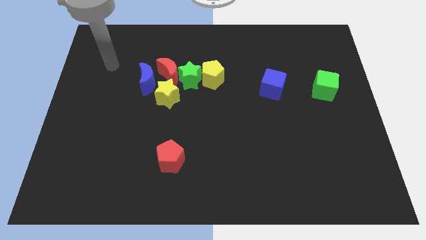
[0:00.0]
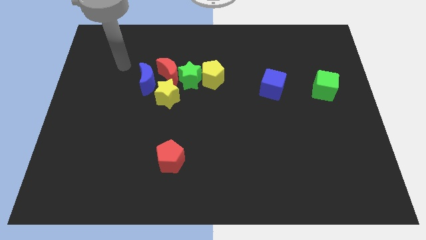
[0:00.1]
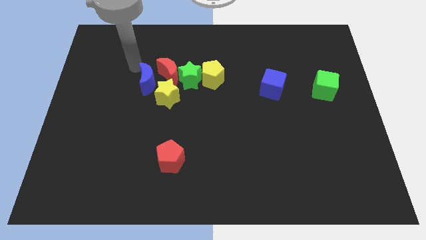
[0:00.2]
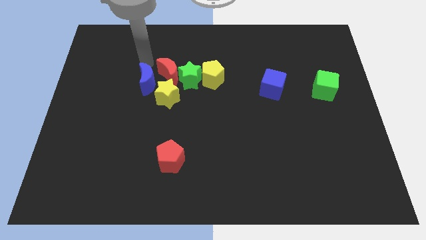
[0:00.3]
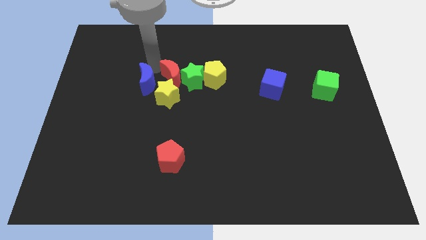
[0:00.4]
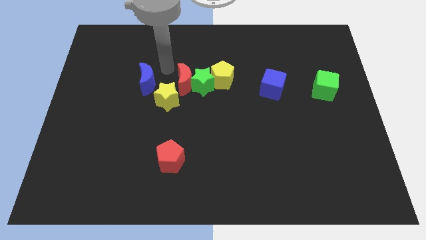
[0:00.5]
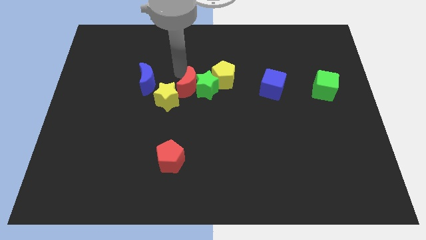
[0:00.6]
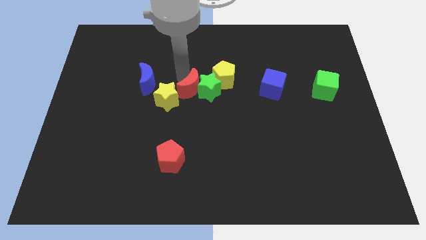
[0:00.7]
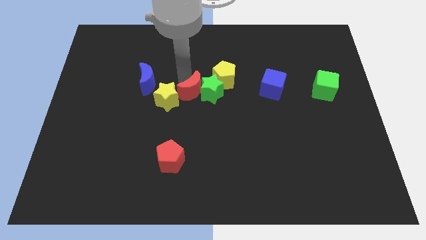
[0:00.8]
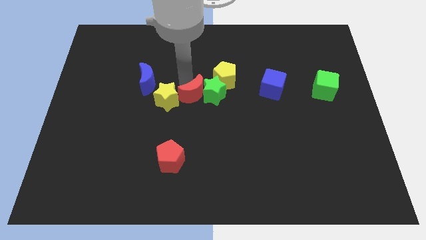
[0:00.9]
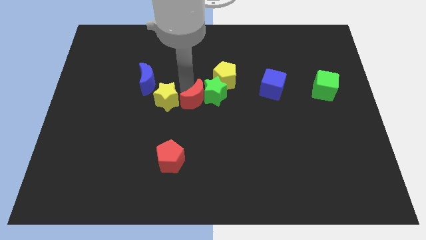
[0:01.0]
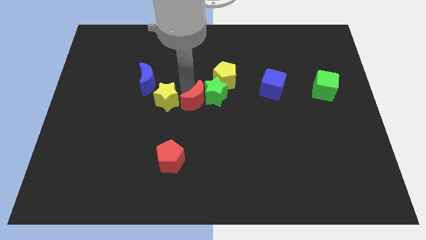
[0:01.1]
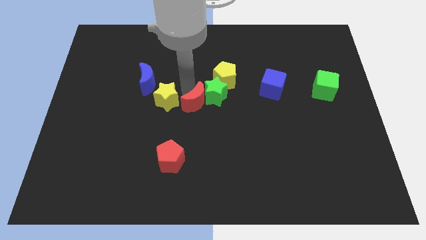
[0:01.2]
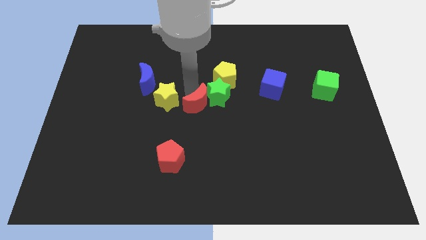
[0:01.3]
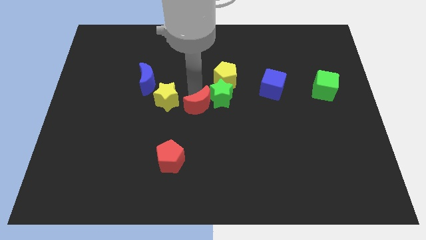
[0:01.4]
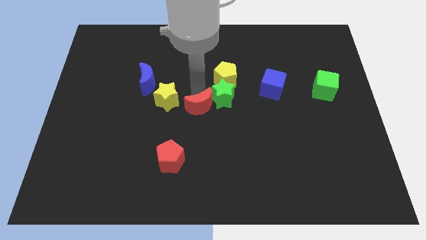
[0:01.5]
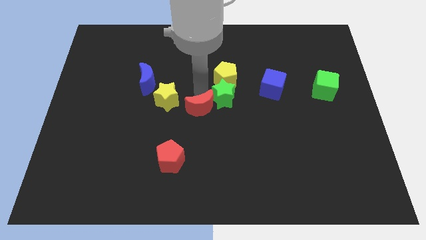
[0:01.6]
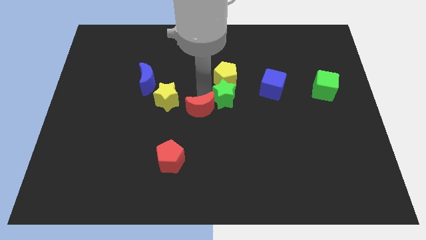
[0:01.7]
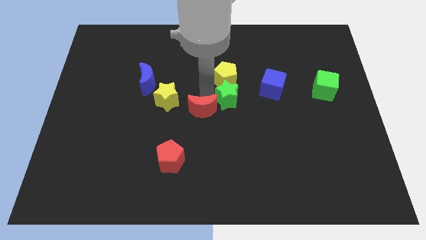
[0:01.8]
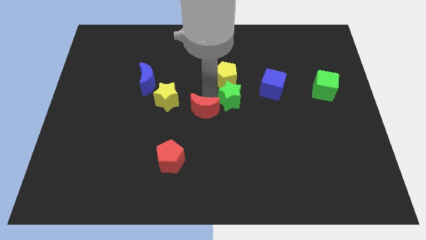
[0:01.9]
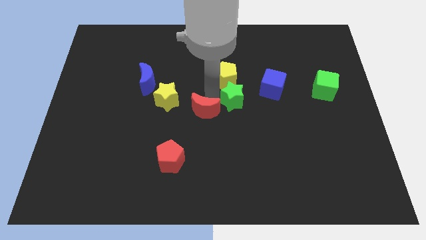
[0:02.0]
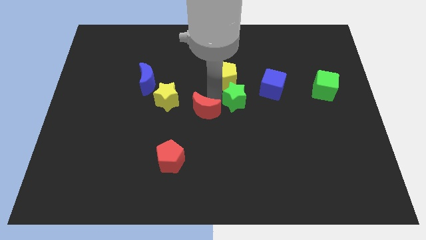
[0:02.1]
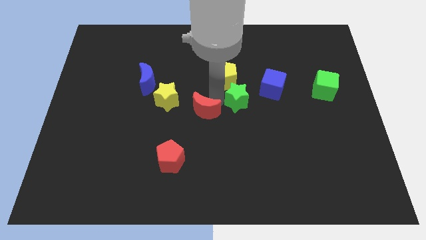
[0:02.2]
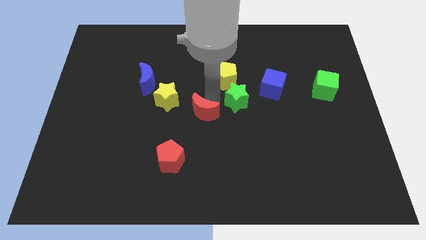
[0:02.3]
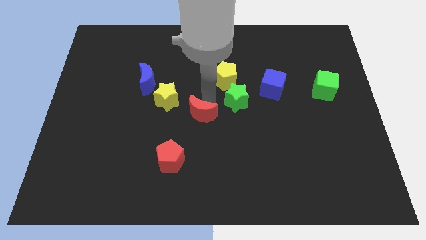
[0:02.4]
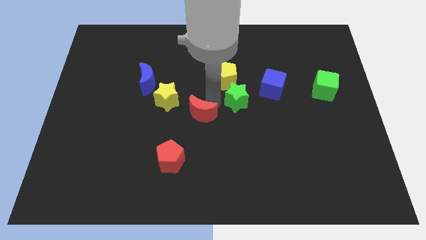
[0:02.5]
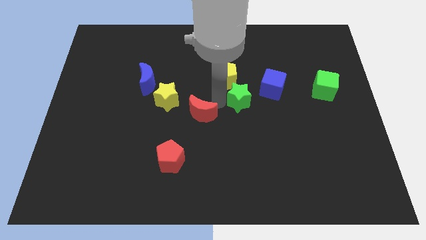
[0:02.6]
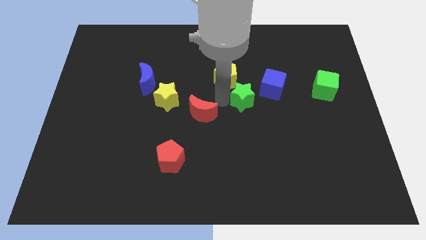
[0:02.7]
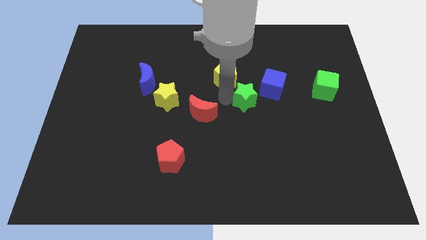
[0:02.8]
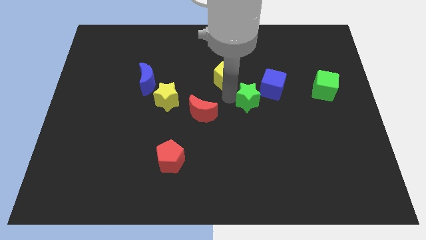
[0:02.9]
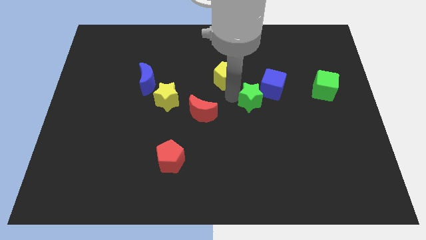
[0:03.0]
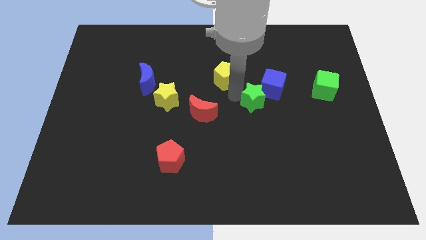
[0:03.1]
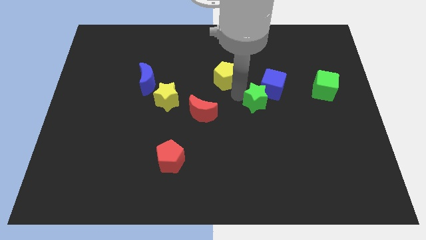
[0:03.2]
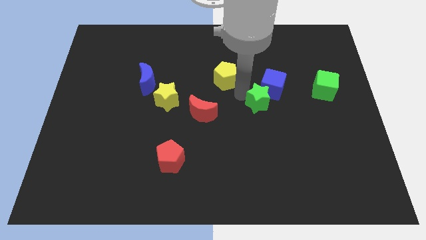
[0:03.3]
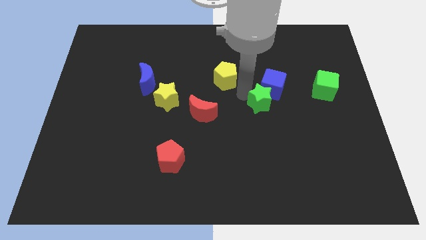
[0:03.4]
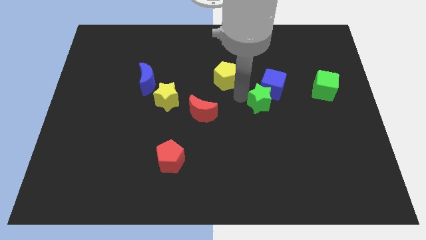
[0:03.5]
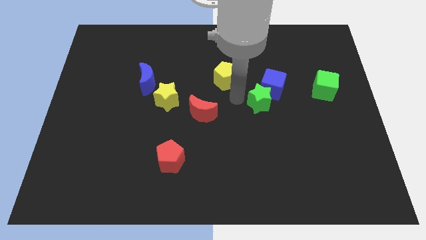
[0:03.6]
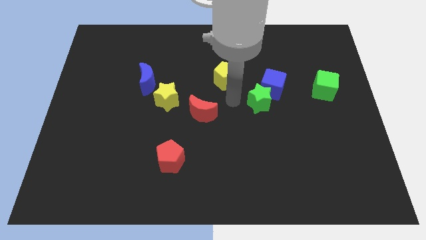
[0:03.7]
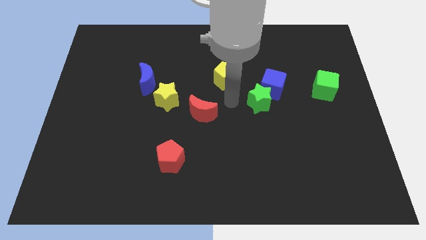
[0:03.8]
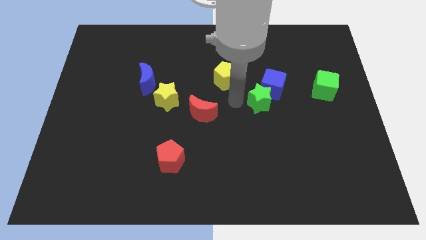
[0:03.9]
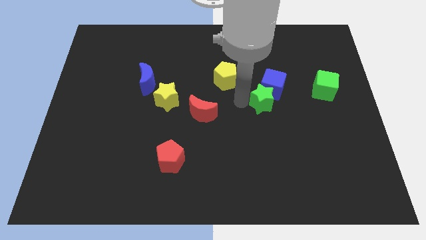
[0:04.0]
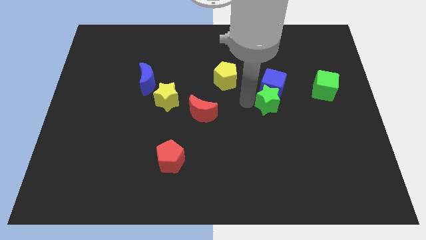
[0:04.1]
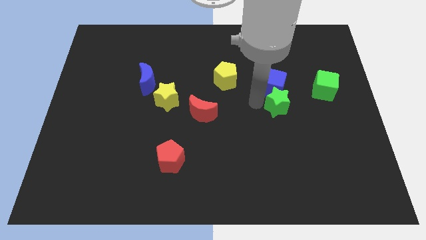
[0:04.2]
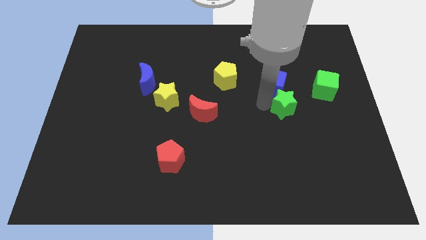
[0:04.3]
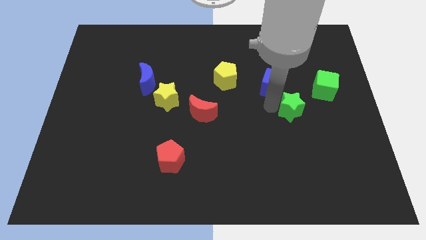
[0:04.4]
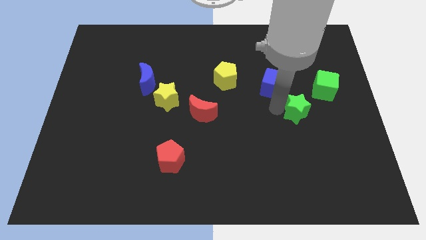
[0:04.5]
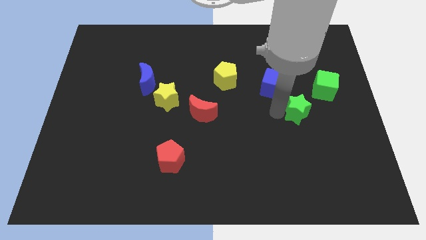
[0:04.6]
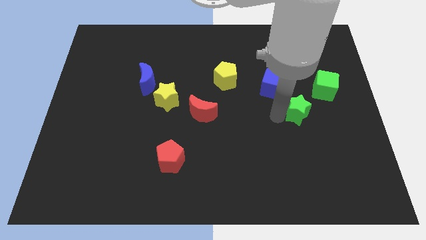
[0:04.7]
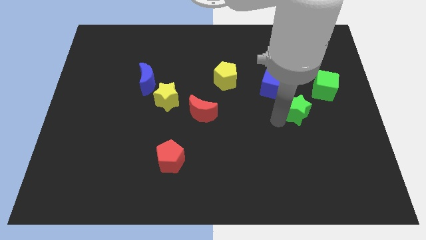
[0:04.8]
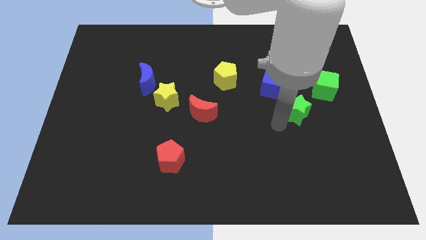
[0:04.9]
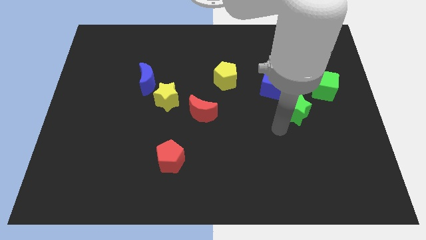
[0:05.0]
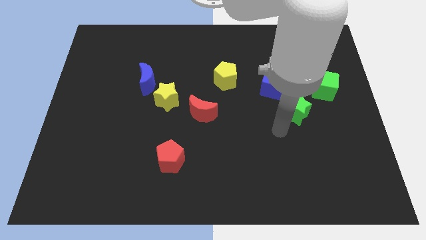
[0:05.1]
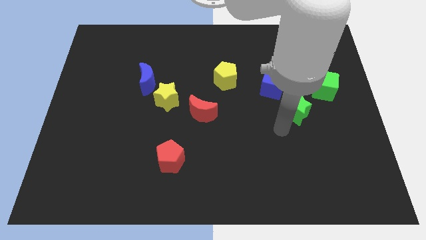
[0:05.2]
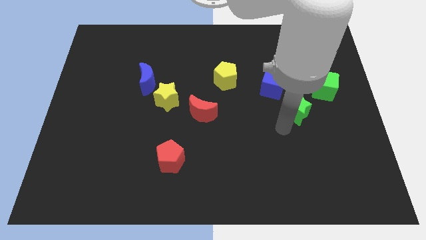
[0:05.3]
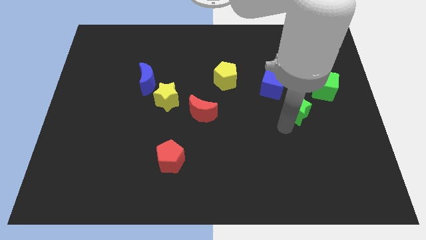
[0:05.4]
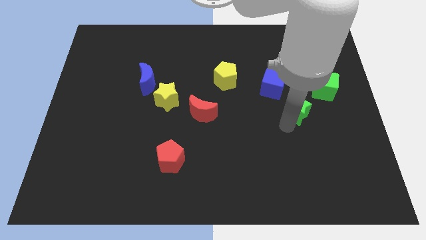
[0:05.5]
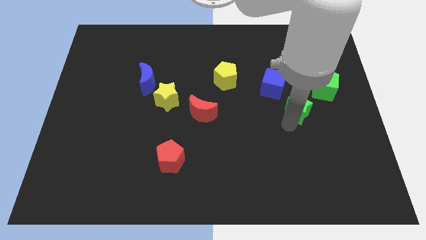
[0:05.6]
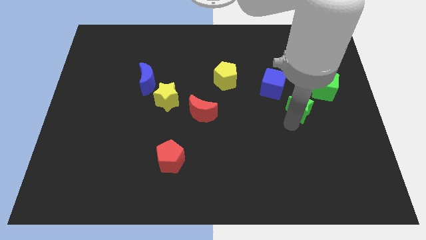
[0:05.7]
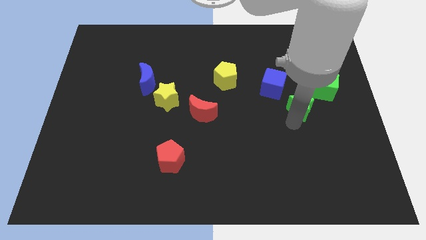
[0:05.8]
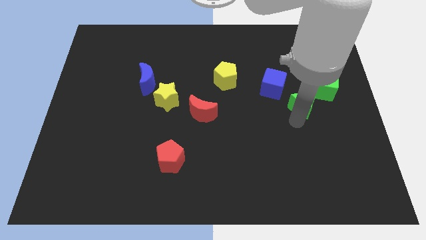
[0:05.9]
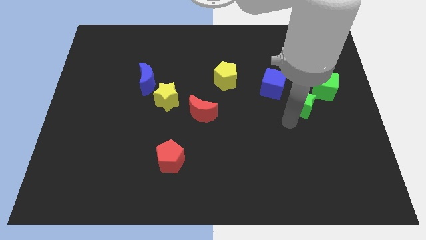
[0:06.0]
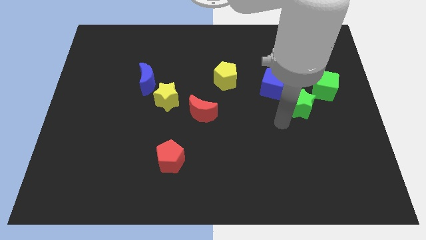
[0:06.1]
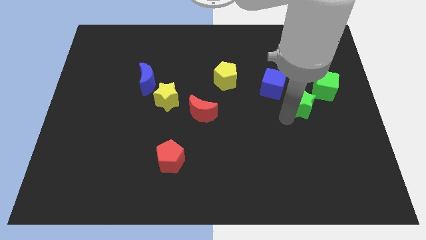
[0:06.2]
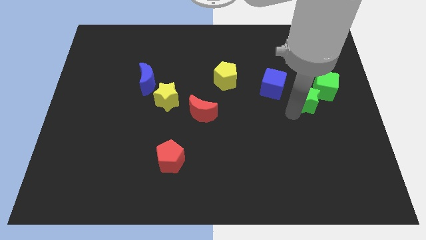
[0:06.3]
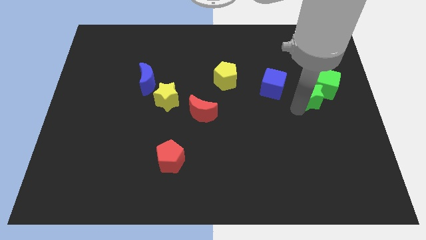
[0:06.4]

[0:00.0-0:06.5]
slide the green star next to the green cube

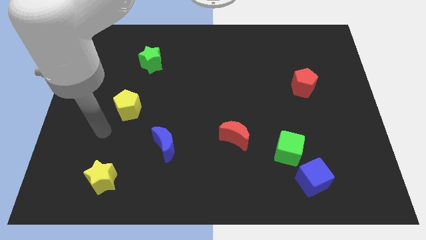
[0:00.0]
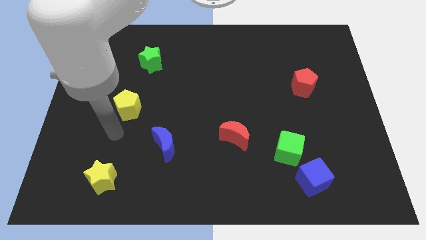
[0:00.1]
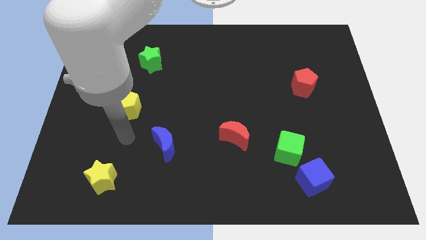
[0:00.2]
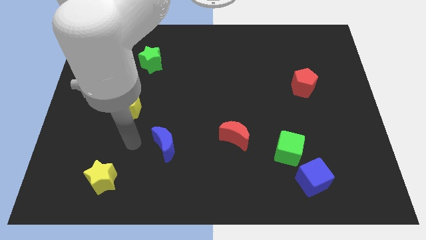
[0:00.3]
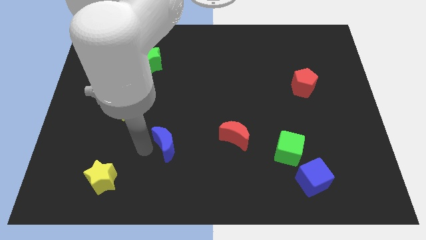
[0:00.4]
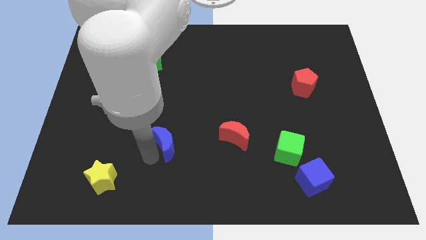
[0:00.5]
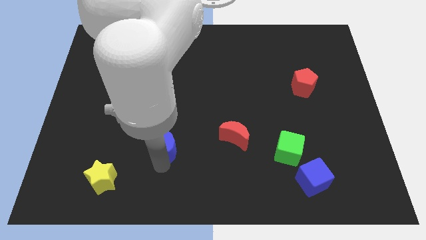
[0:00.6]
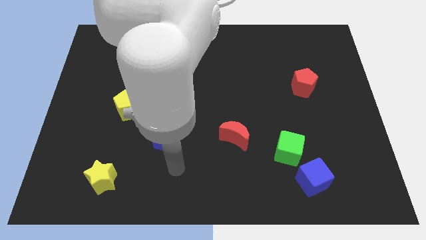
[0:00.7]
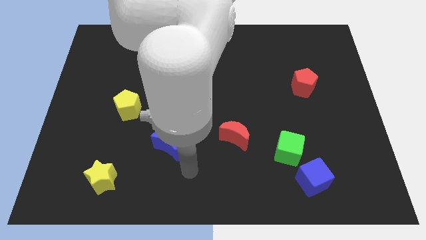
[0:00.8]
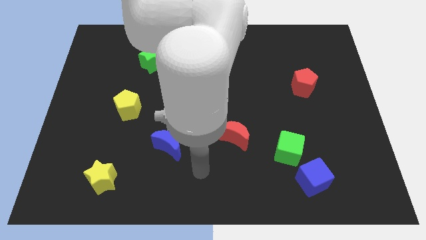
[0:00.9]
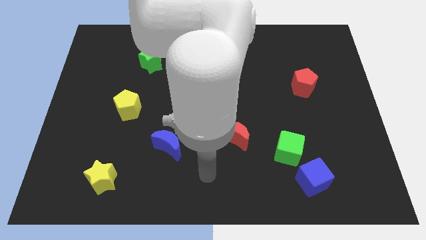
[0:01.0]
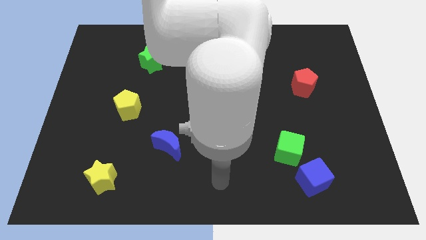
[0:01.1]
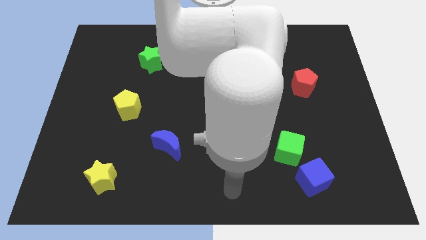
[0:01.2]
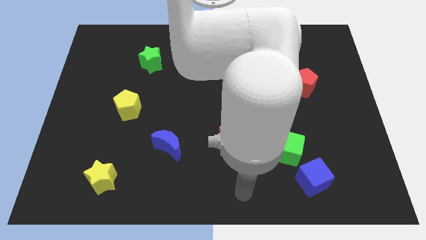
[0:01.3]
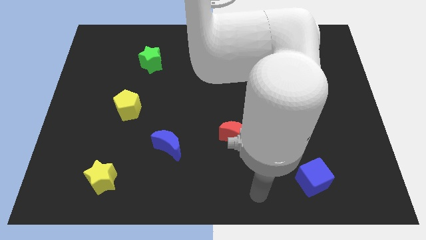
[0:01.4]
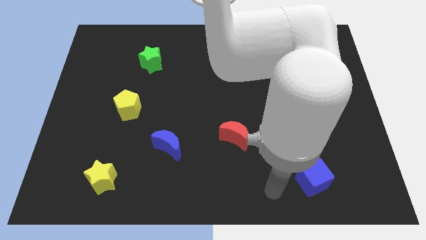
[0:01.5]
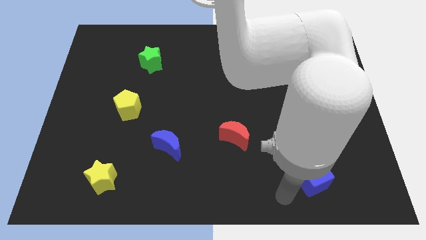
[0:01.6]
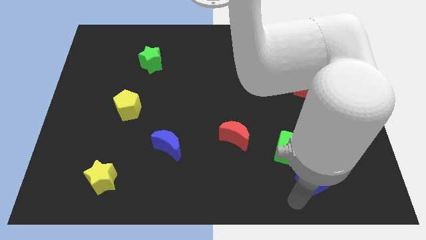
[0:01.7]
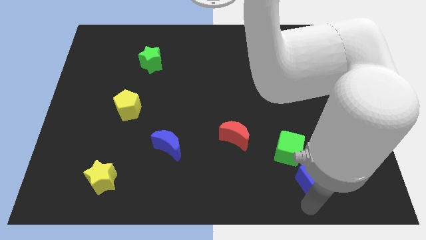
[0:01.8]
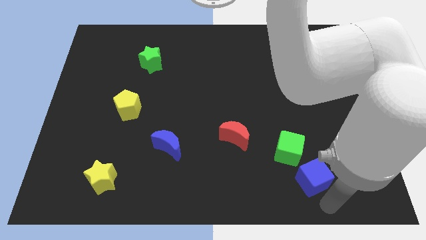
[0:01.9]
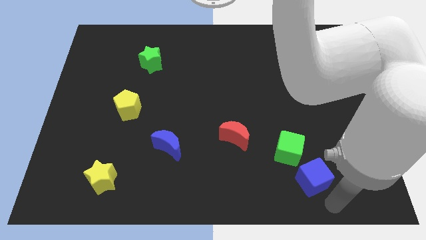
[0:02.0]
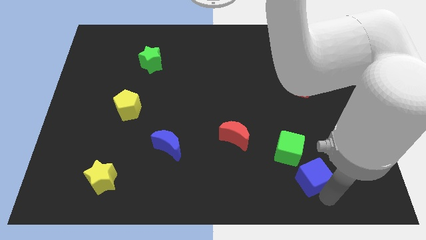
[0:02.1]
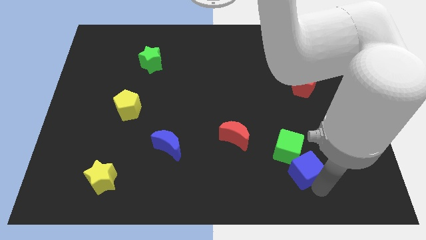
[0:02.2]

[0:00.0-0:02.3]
push the blue cube towards the green cube
